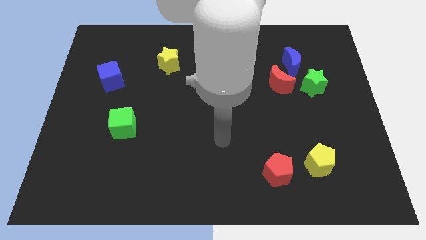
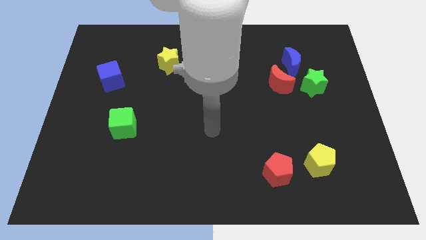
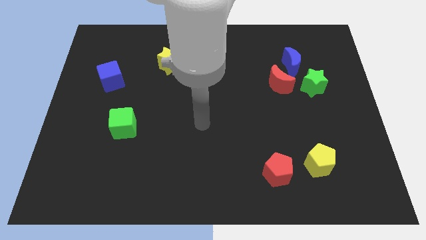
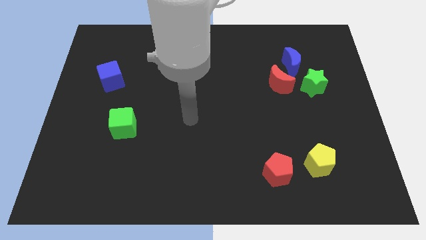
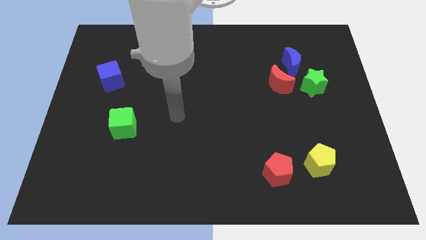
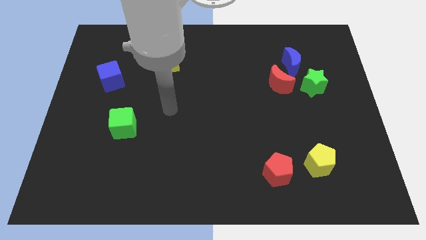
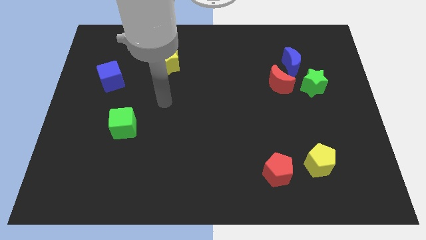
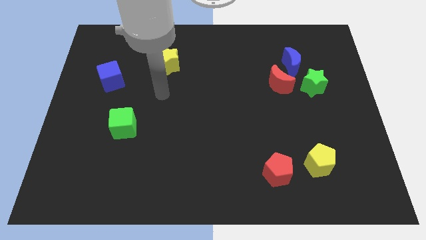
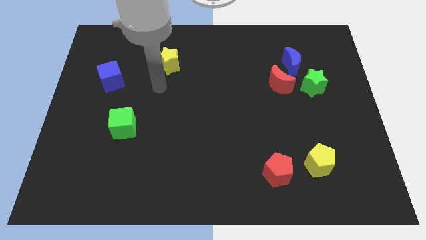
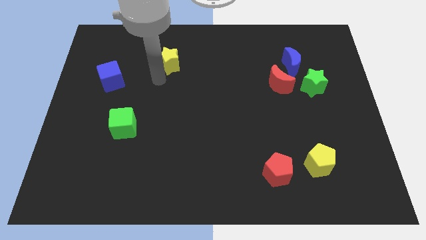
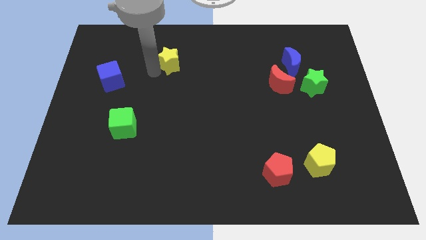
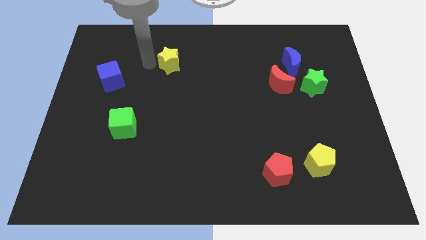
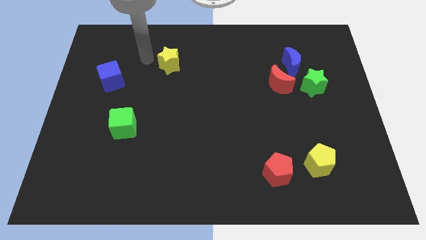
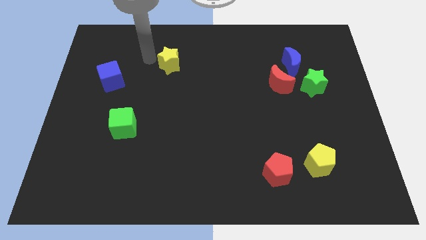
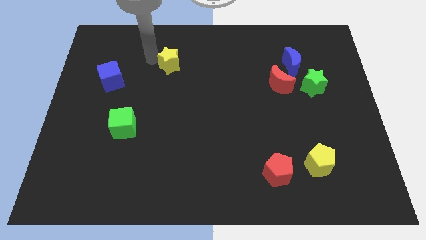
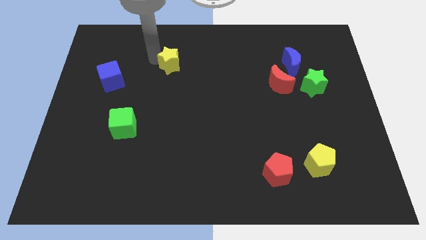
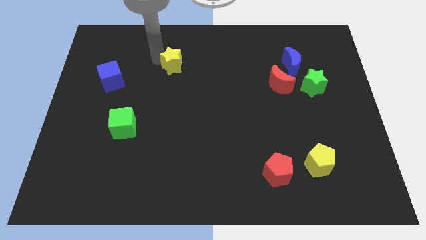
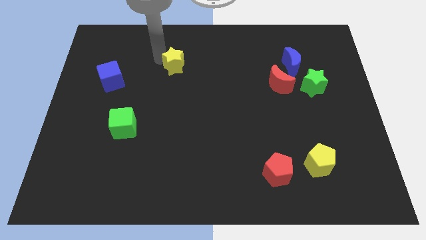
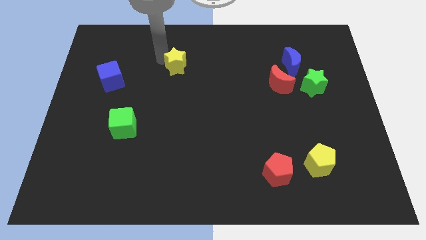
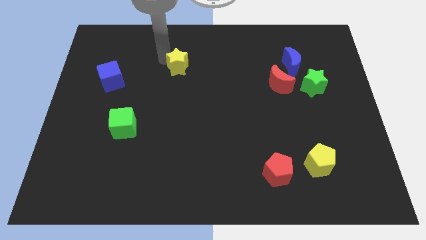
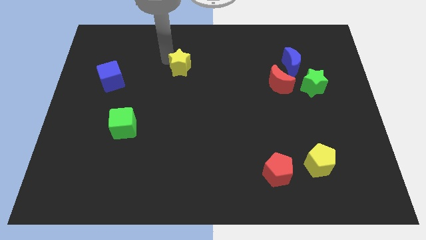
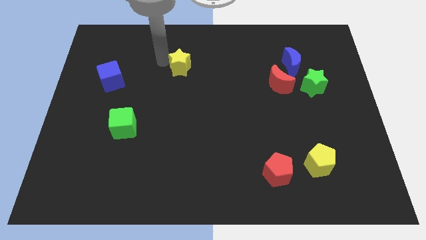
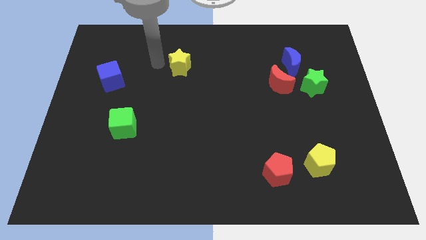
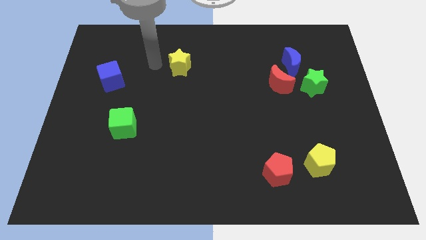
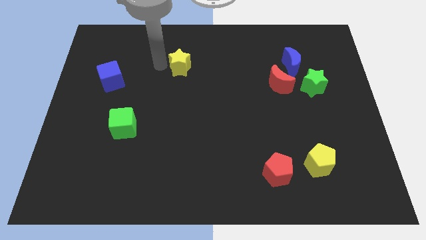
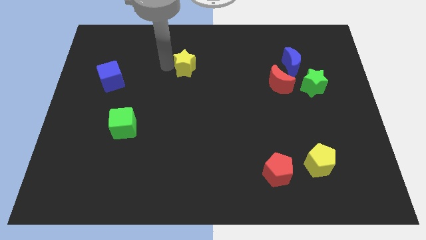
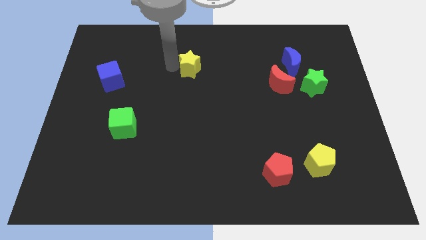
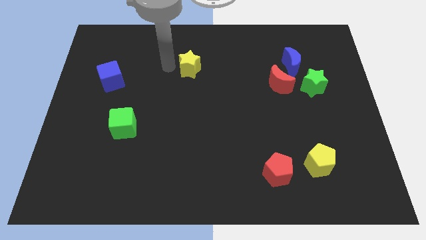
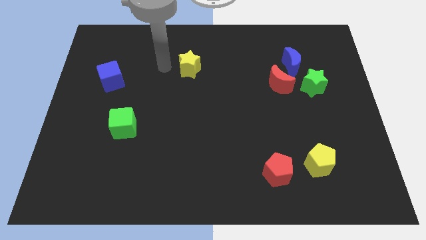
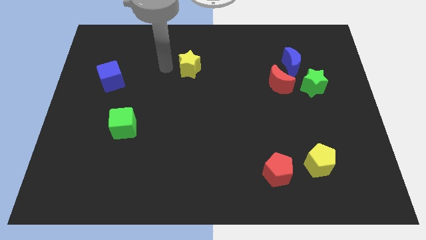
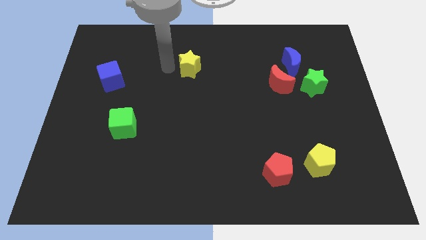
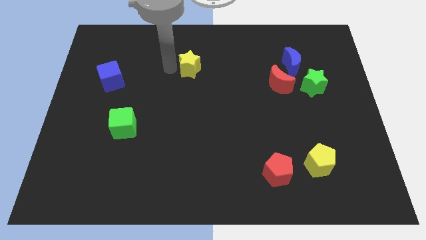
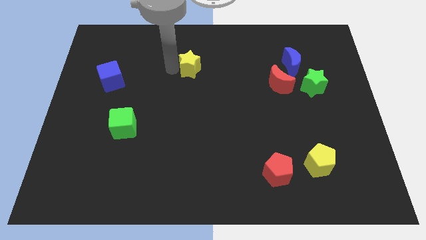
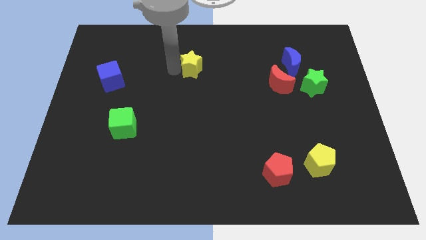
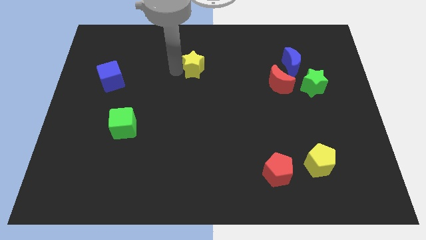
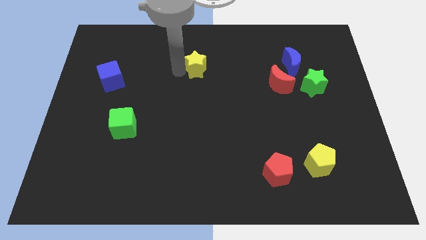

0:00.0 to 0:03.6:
slightly move the yellow star right

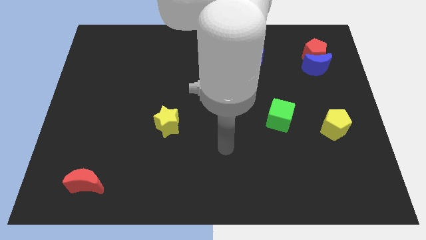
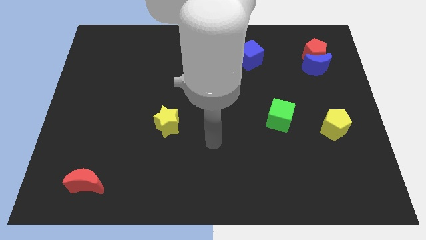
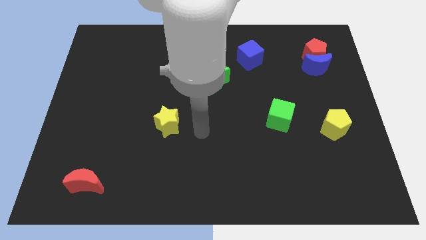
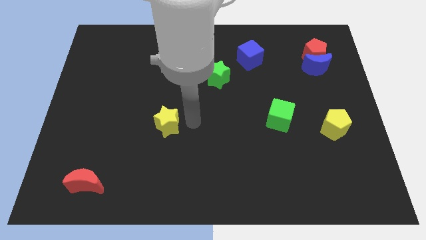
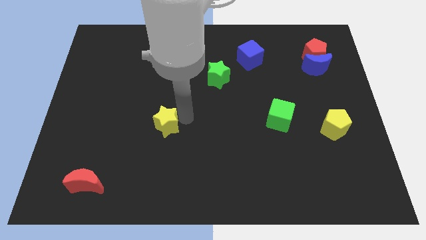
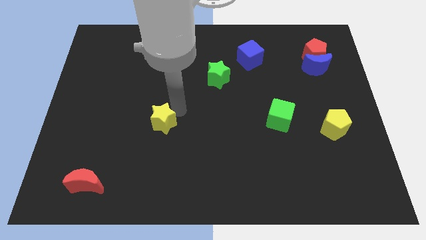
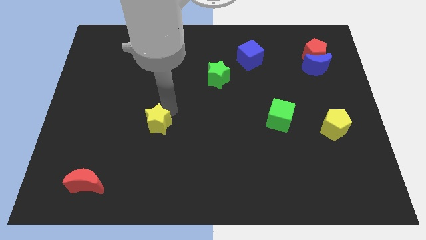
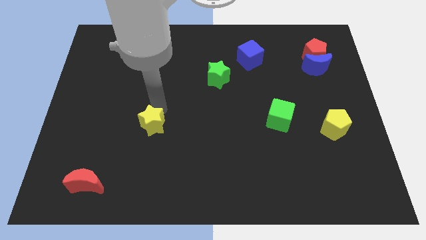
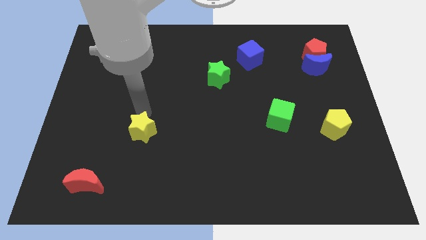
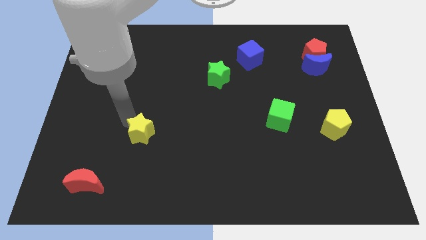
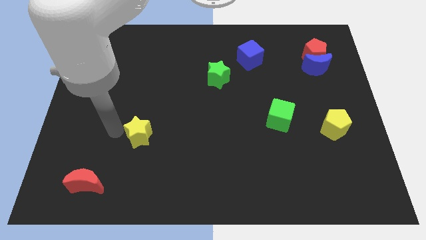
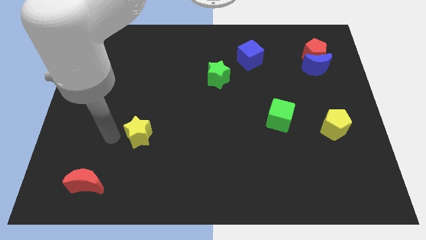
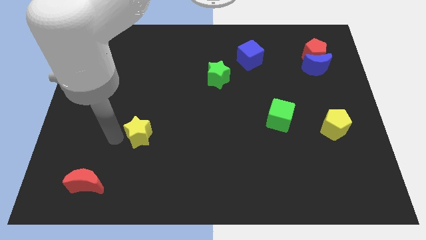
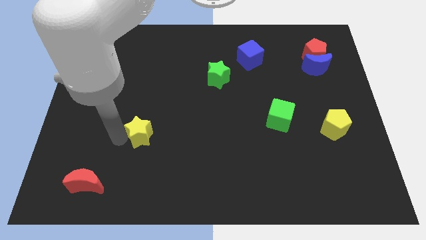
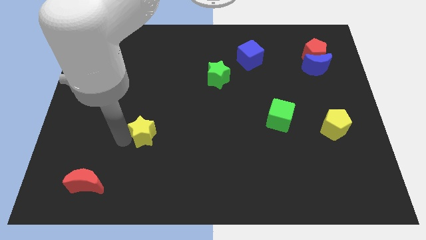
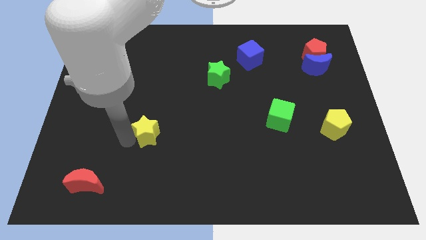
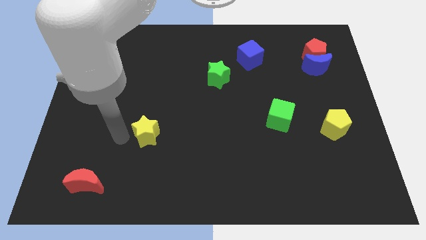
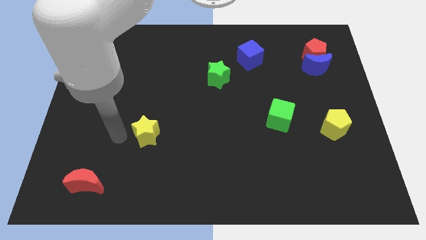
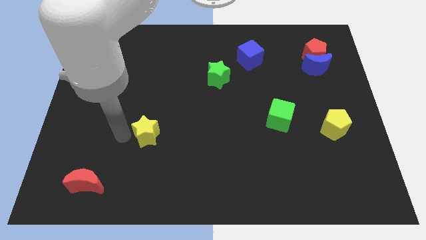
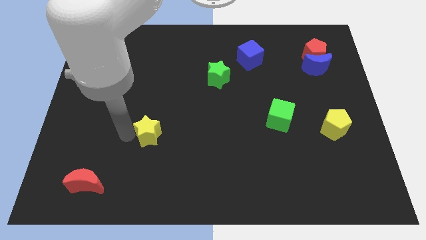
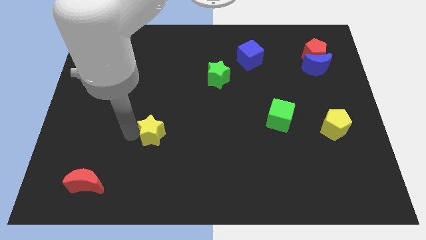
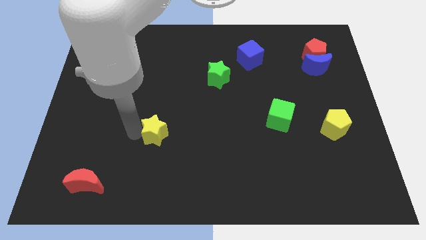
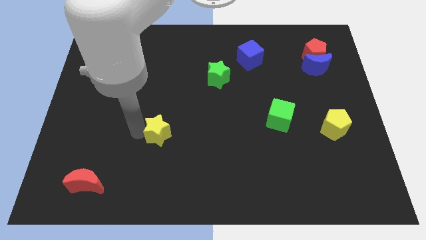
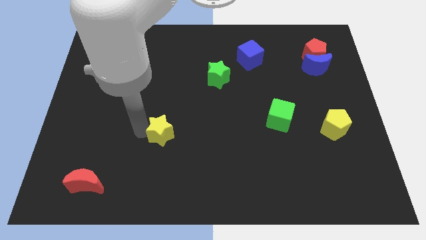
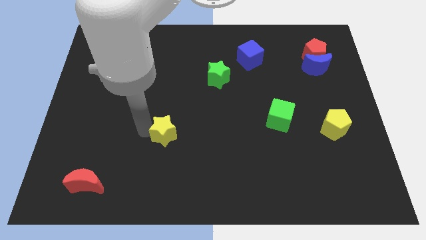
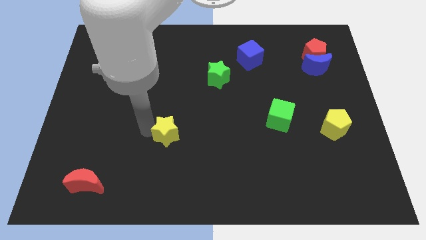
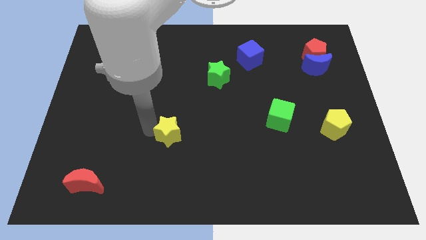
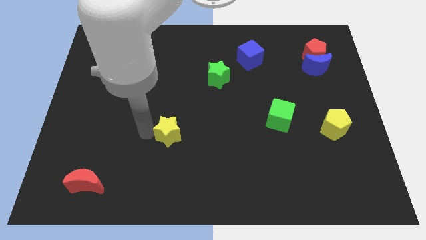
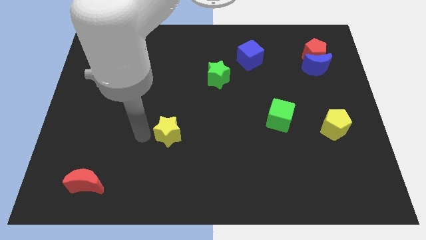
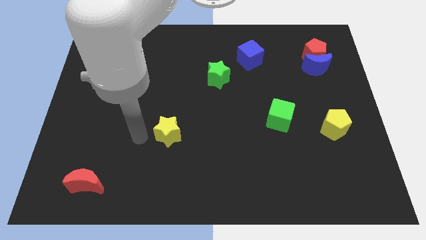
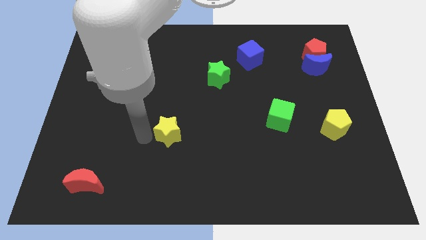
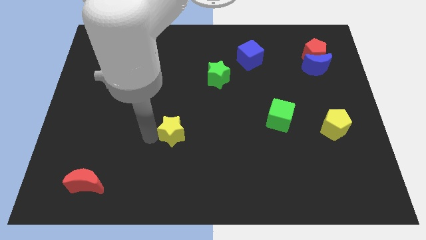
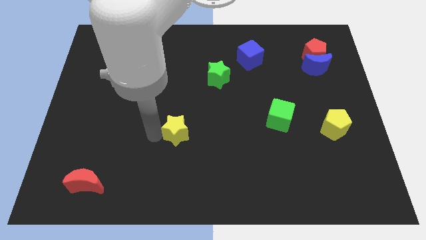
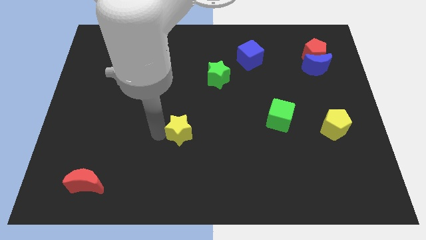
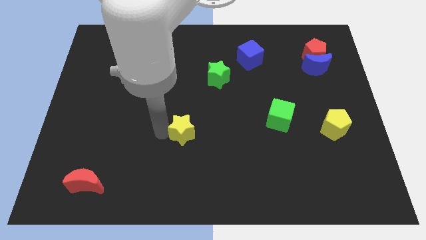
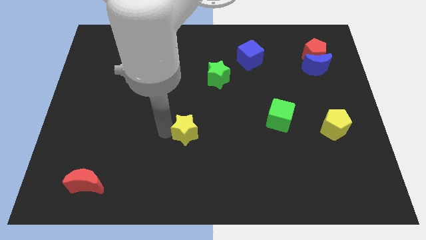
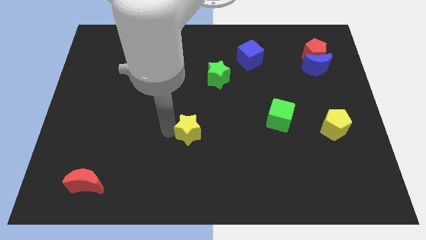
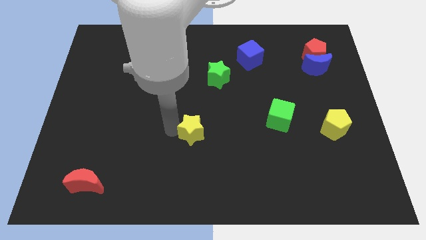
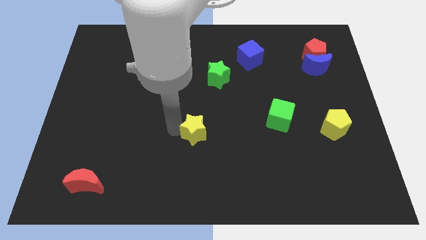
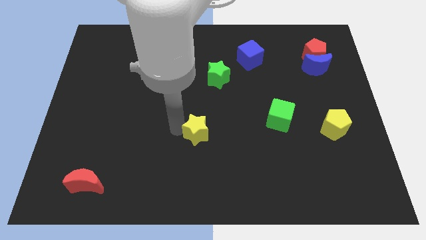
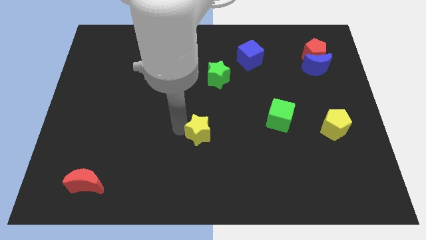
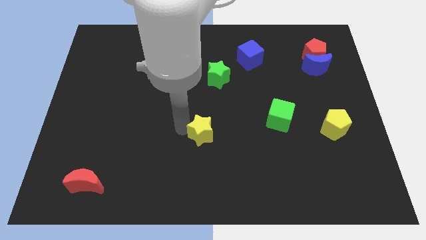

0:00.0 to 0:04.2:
push the yellow star down and right a little
